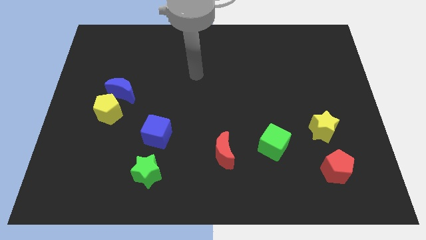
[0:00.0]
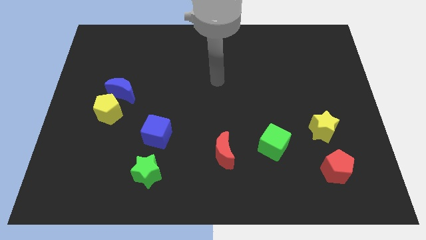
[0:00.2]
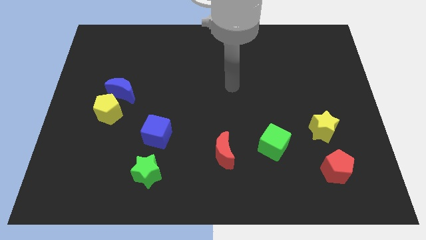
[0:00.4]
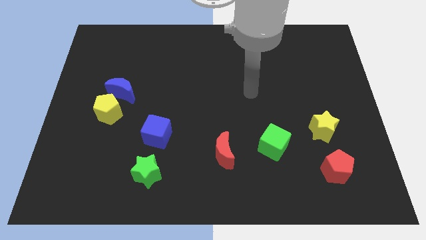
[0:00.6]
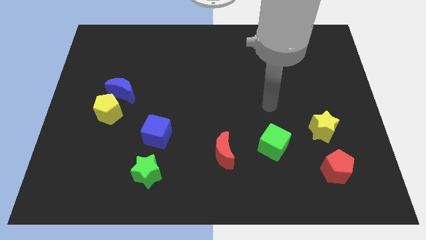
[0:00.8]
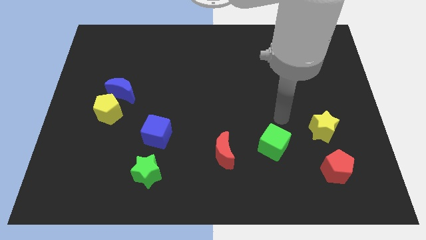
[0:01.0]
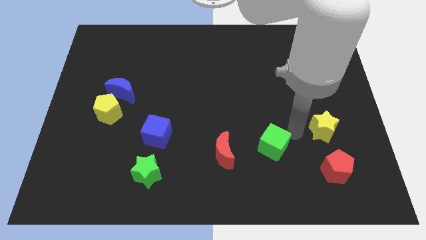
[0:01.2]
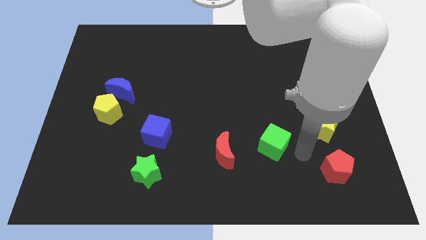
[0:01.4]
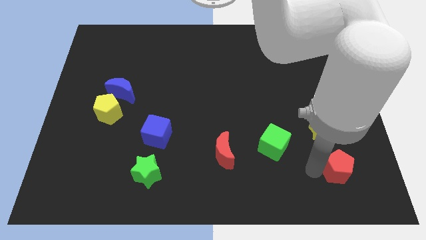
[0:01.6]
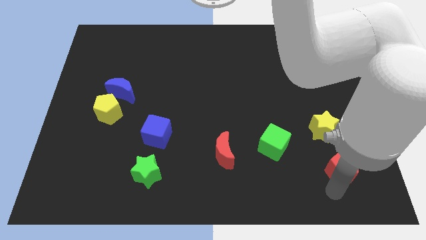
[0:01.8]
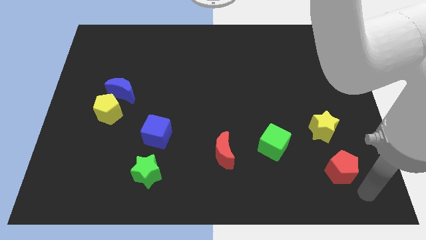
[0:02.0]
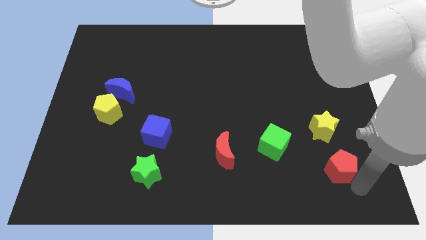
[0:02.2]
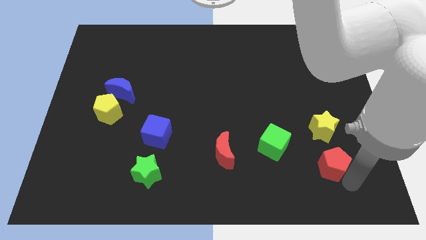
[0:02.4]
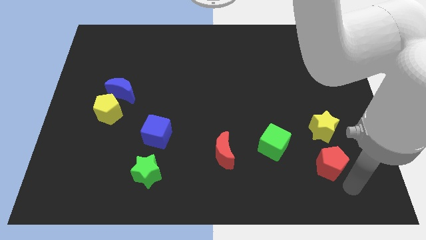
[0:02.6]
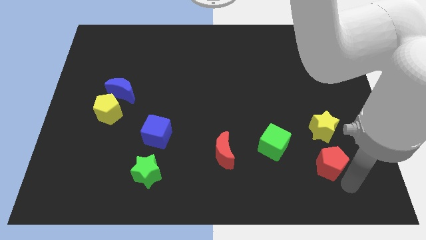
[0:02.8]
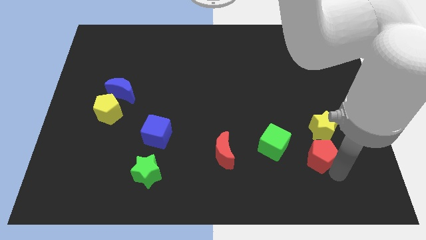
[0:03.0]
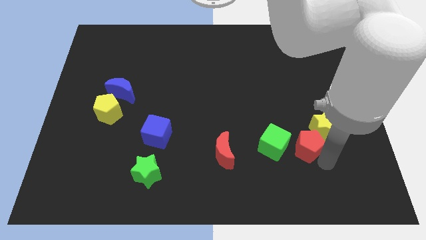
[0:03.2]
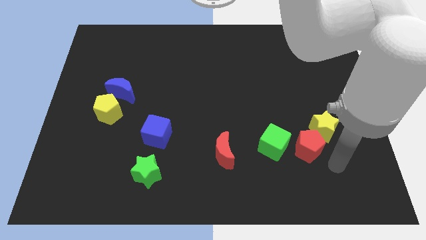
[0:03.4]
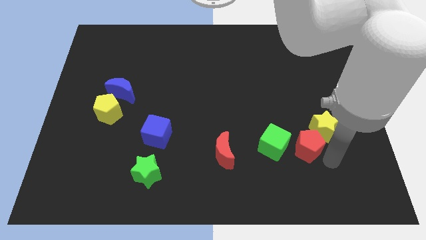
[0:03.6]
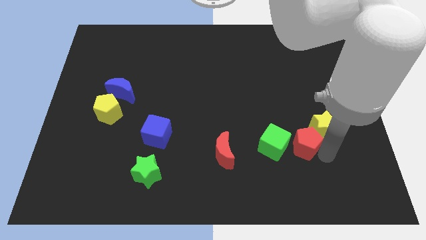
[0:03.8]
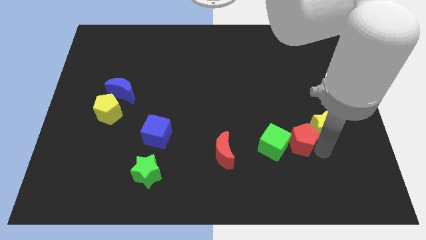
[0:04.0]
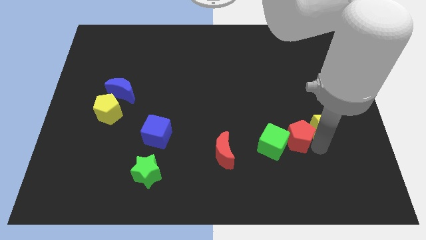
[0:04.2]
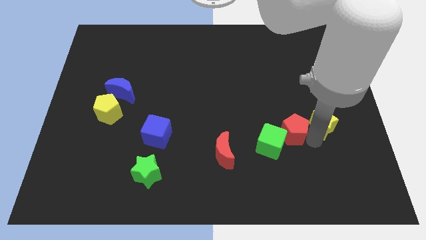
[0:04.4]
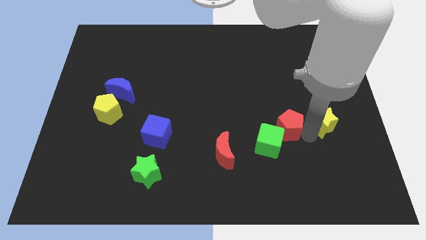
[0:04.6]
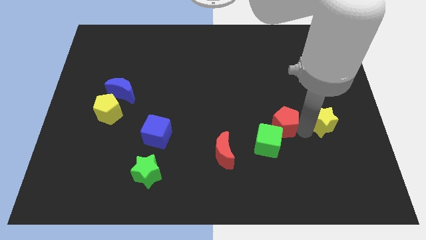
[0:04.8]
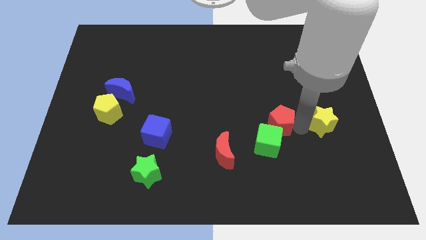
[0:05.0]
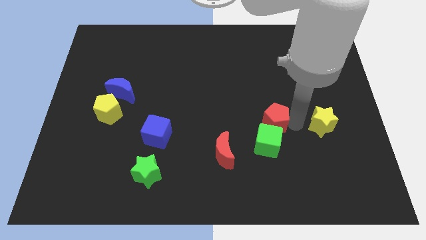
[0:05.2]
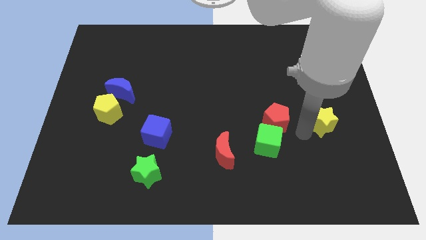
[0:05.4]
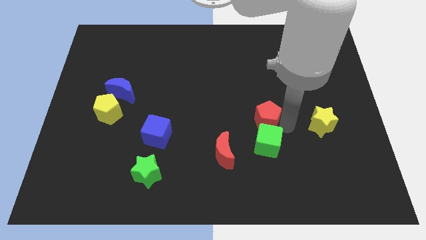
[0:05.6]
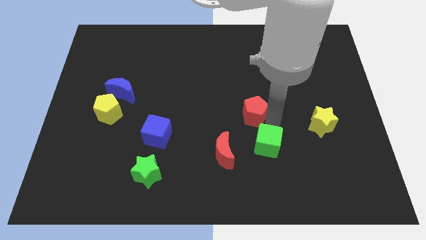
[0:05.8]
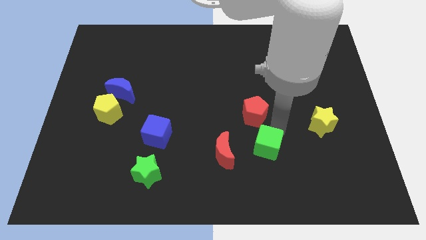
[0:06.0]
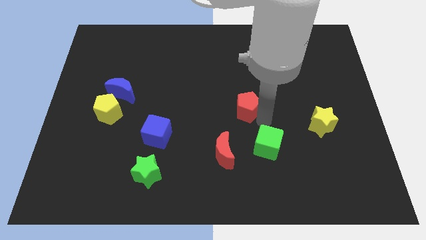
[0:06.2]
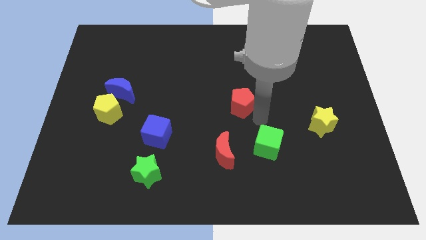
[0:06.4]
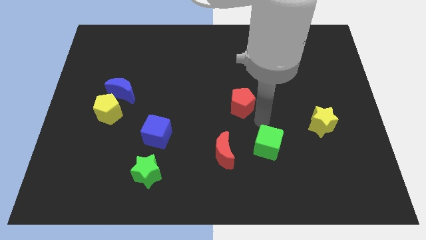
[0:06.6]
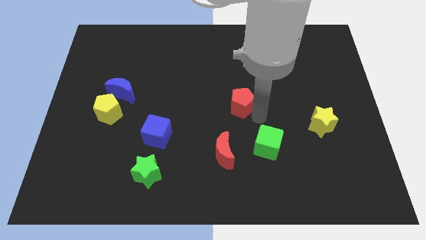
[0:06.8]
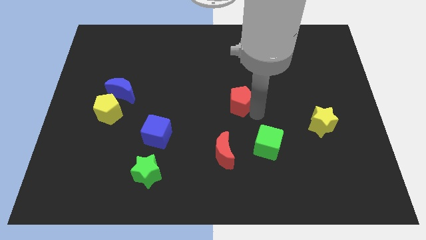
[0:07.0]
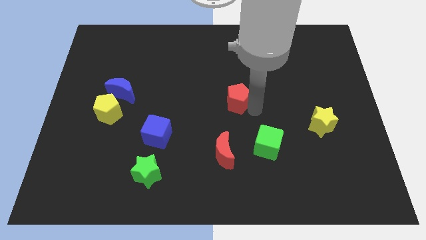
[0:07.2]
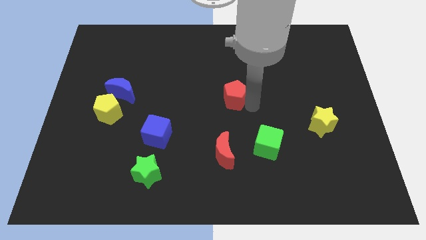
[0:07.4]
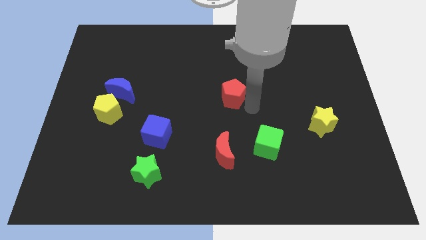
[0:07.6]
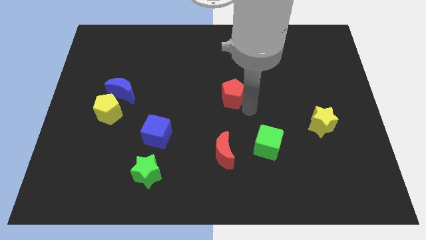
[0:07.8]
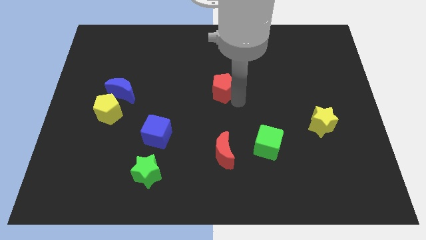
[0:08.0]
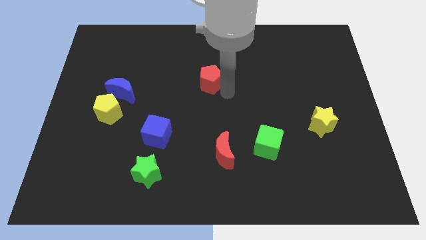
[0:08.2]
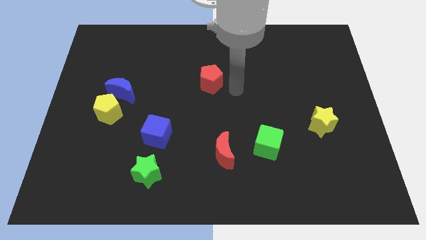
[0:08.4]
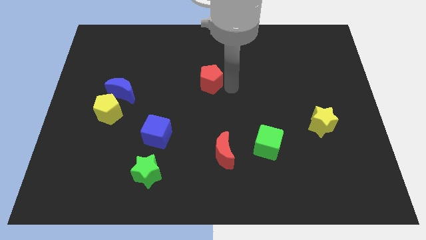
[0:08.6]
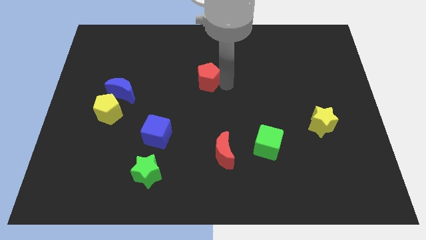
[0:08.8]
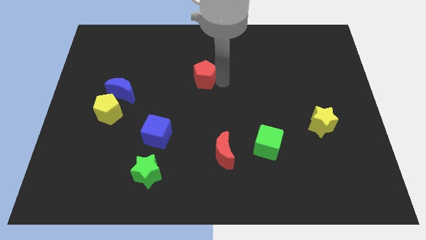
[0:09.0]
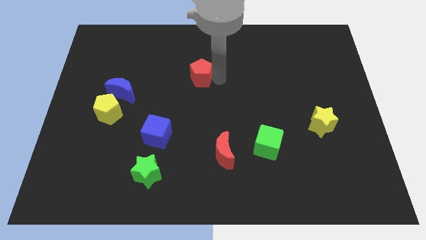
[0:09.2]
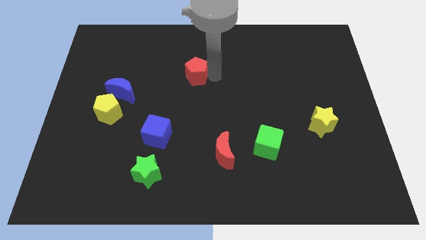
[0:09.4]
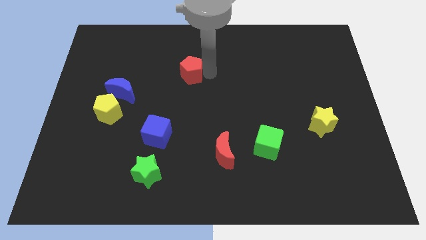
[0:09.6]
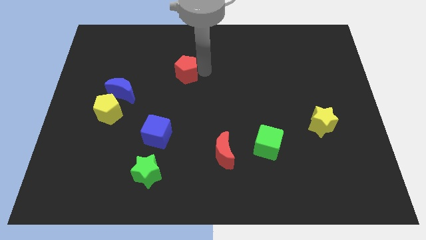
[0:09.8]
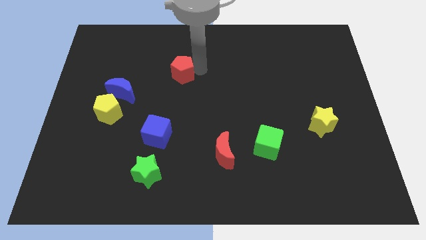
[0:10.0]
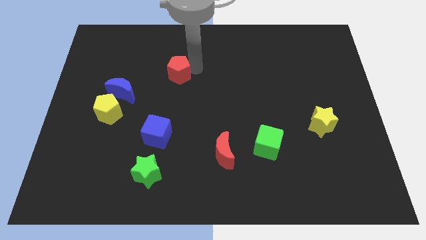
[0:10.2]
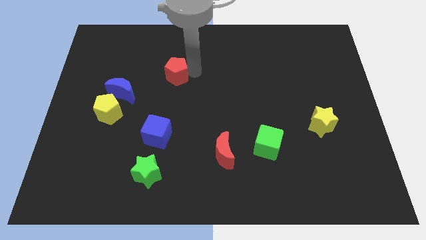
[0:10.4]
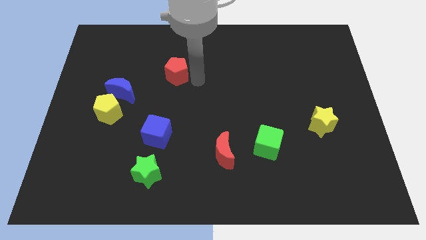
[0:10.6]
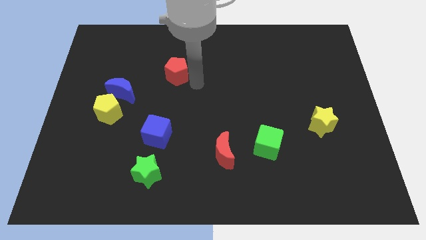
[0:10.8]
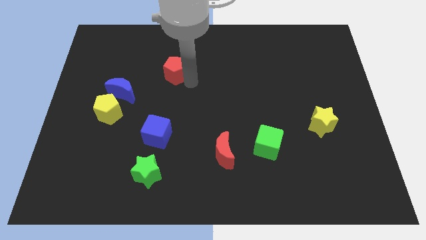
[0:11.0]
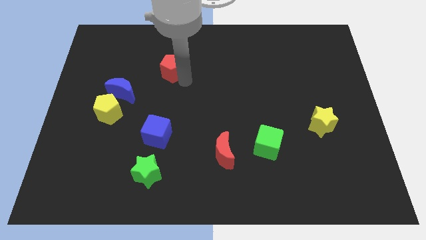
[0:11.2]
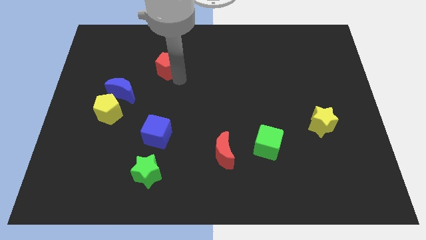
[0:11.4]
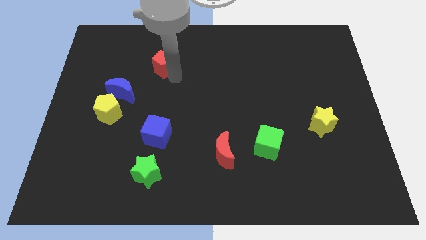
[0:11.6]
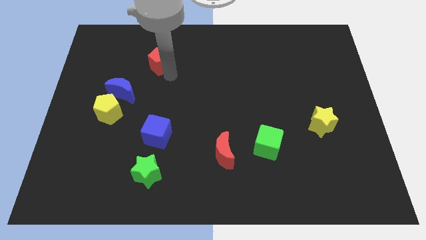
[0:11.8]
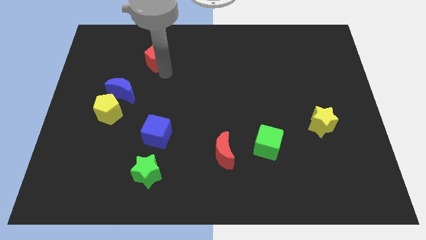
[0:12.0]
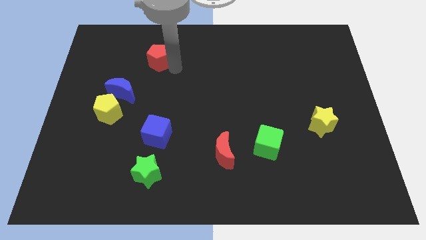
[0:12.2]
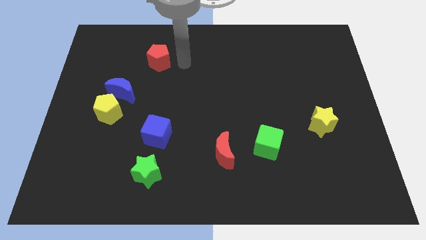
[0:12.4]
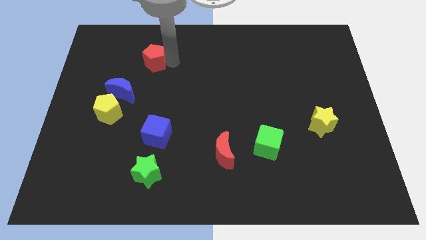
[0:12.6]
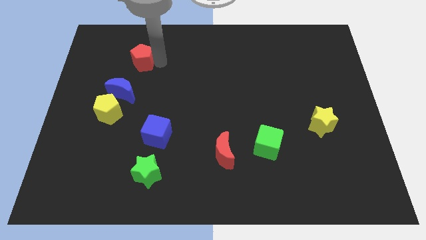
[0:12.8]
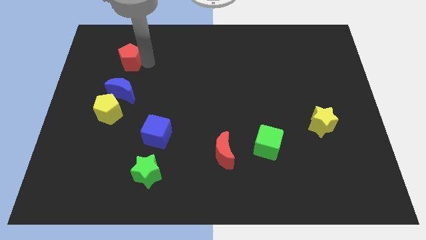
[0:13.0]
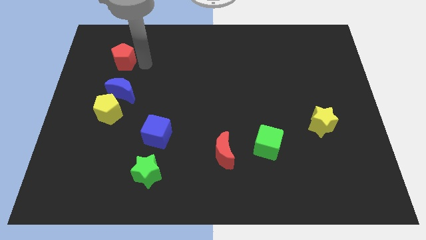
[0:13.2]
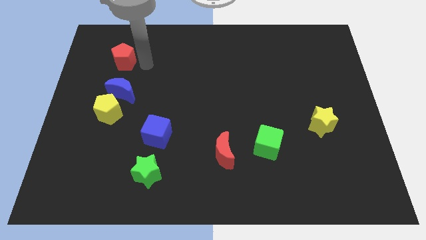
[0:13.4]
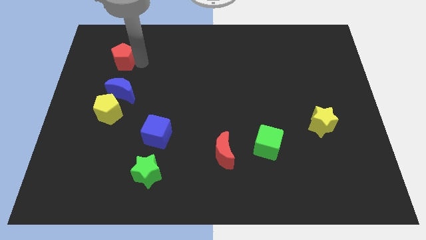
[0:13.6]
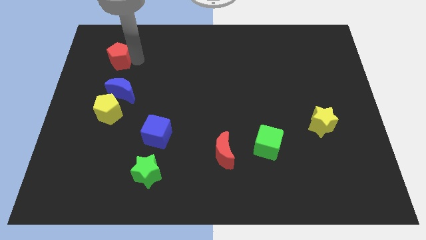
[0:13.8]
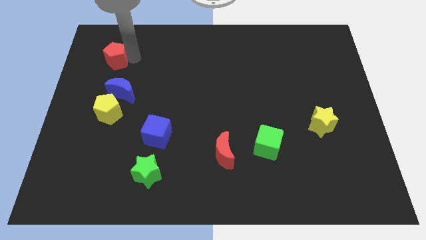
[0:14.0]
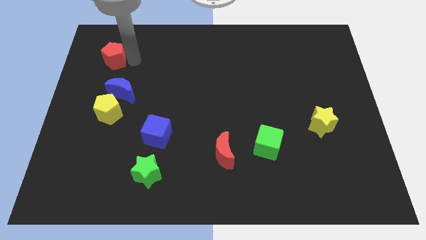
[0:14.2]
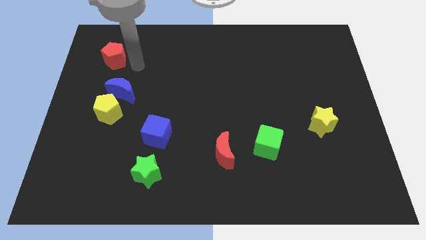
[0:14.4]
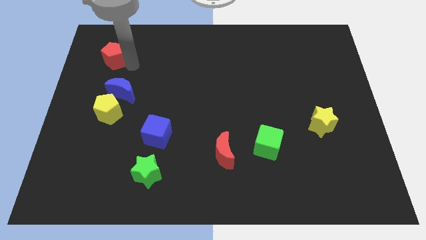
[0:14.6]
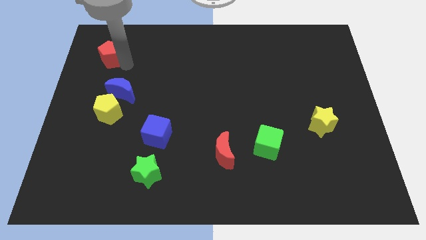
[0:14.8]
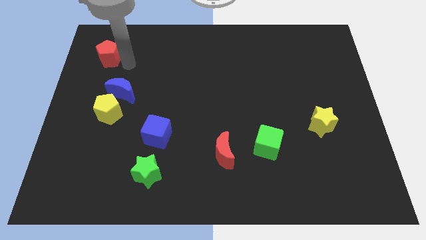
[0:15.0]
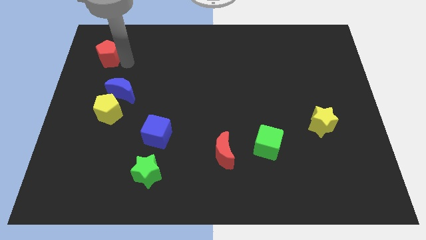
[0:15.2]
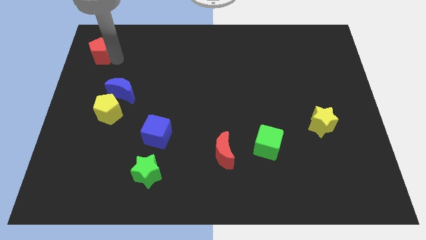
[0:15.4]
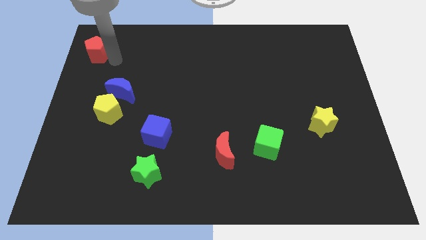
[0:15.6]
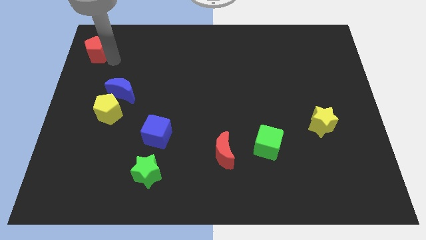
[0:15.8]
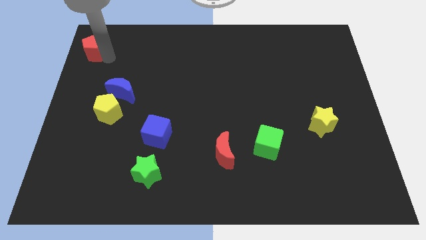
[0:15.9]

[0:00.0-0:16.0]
push the red pentagon to the upper left corner
